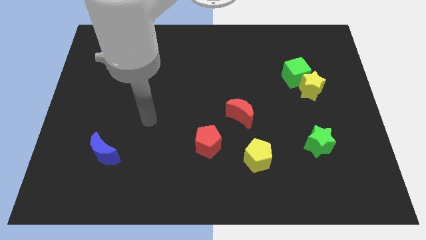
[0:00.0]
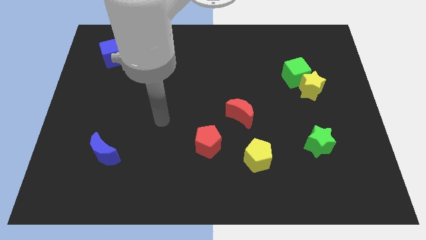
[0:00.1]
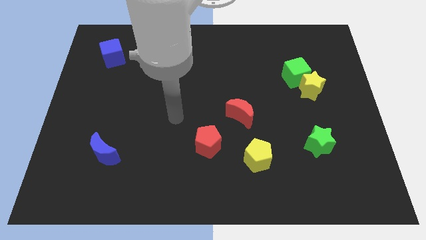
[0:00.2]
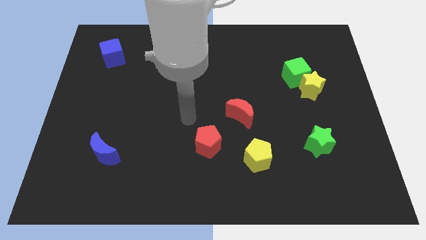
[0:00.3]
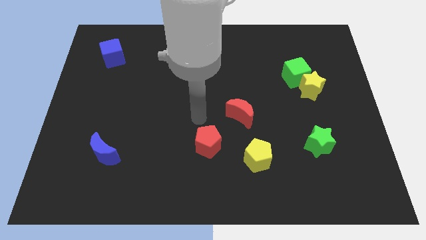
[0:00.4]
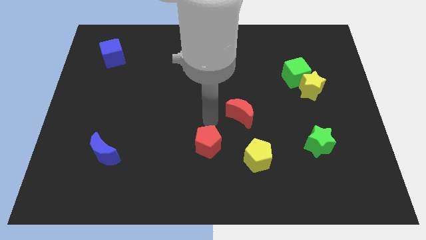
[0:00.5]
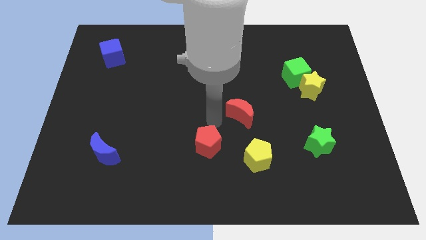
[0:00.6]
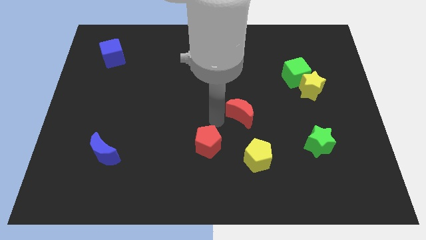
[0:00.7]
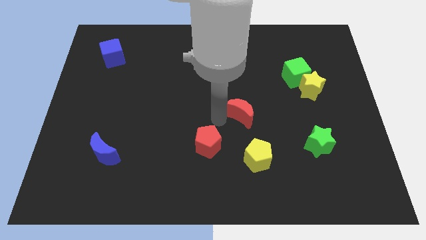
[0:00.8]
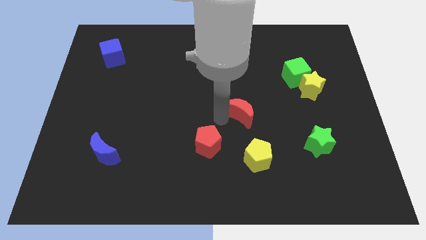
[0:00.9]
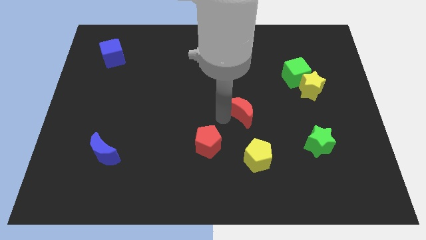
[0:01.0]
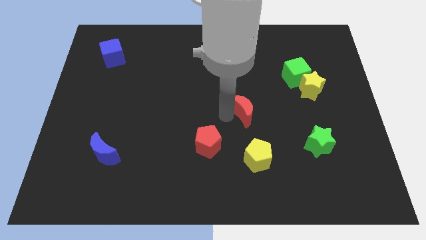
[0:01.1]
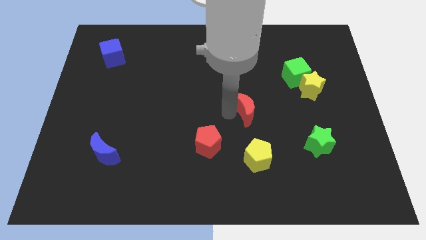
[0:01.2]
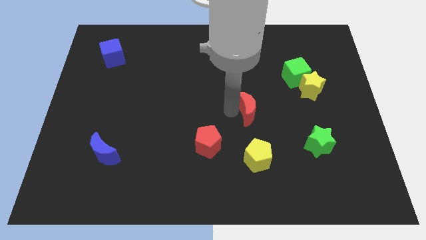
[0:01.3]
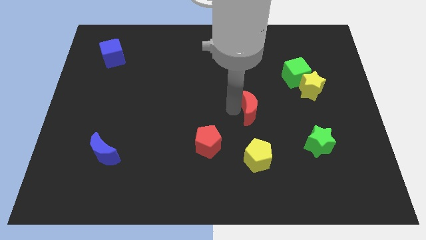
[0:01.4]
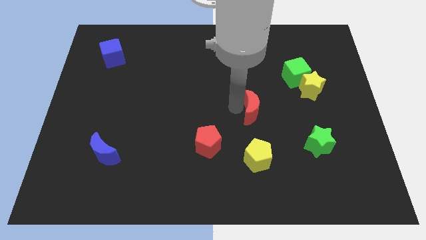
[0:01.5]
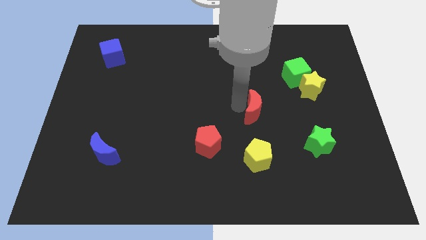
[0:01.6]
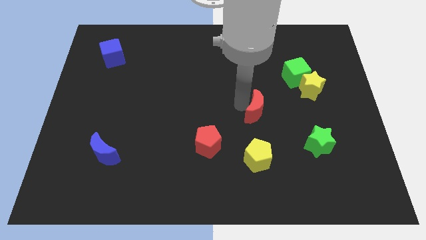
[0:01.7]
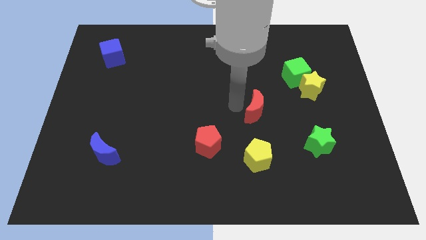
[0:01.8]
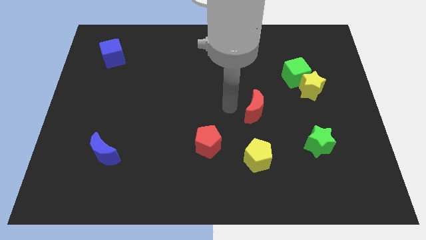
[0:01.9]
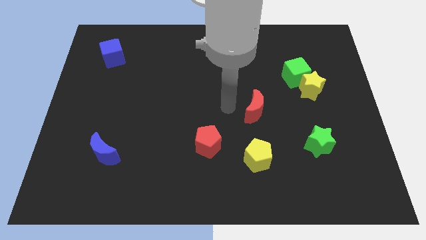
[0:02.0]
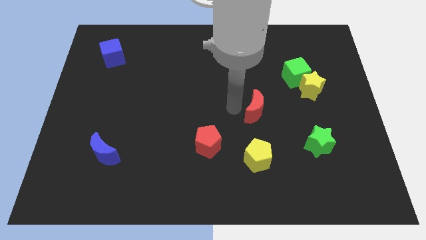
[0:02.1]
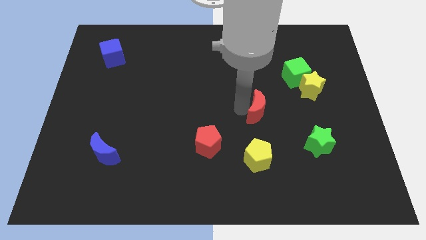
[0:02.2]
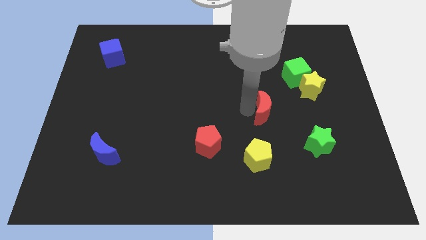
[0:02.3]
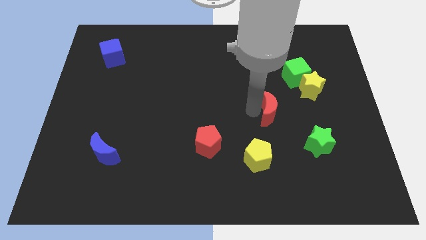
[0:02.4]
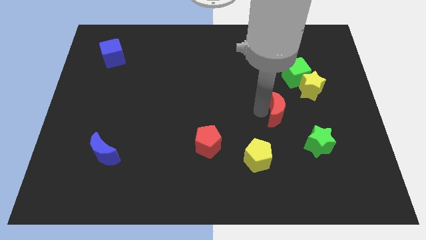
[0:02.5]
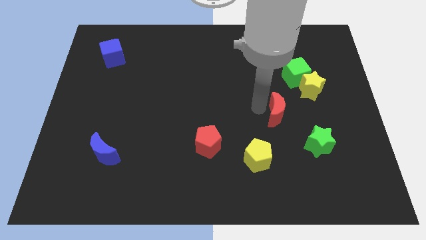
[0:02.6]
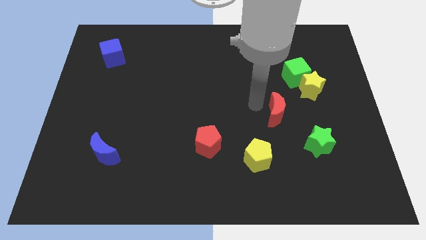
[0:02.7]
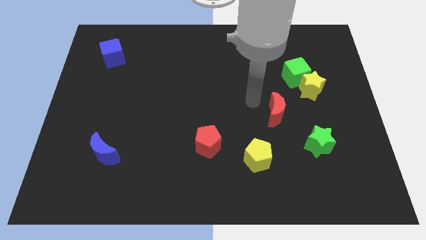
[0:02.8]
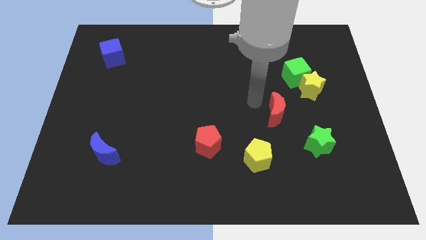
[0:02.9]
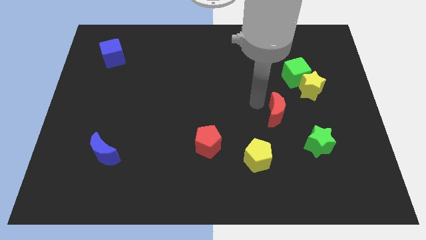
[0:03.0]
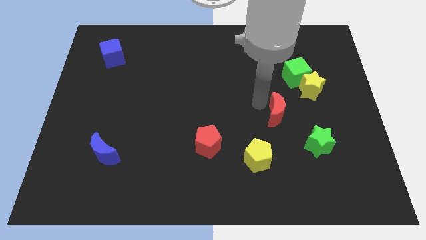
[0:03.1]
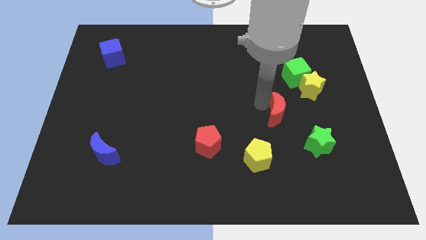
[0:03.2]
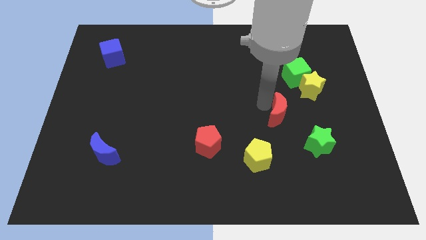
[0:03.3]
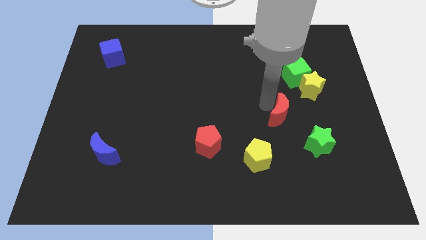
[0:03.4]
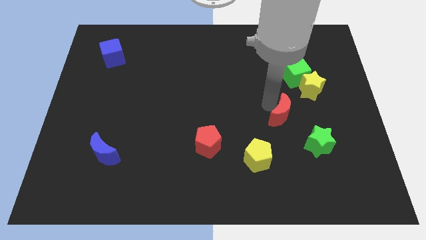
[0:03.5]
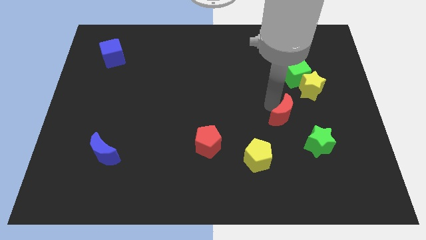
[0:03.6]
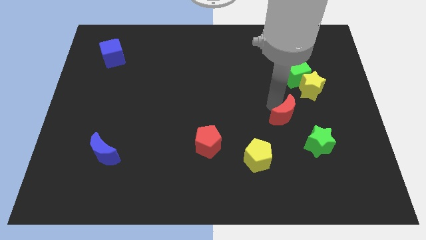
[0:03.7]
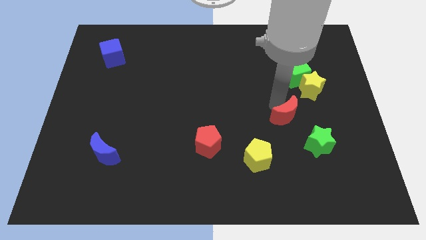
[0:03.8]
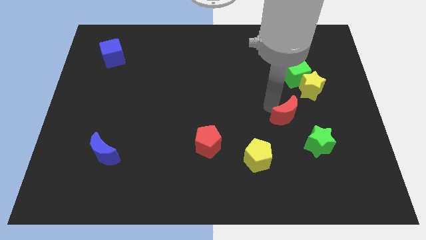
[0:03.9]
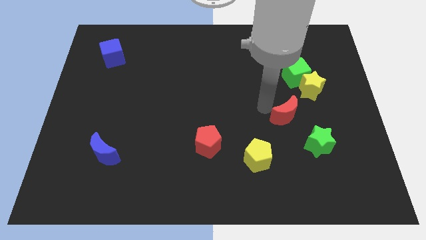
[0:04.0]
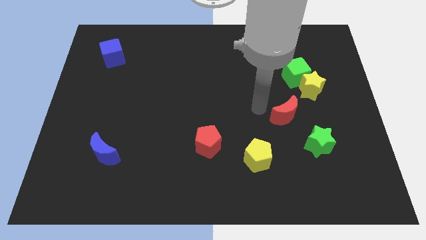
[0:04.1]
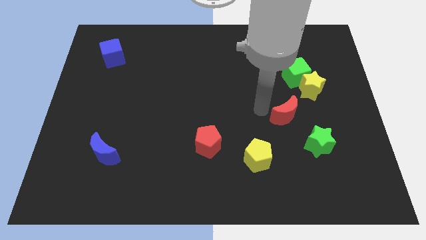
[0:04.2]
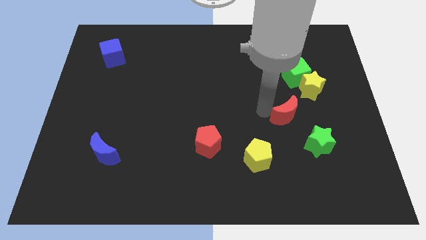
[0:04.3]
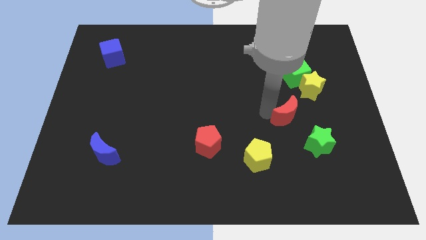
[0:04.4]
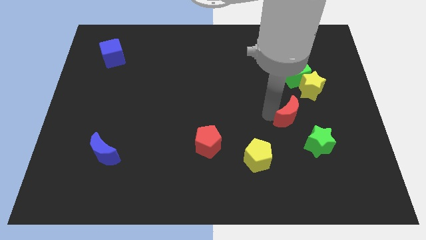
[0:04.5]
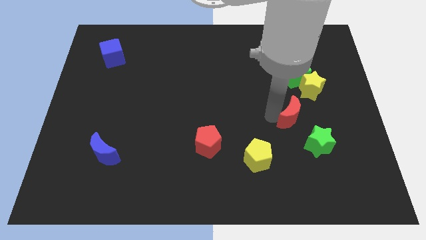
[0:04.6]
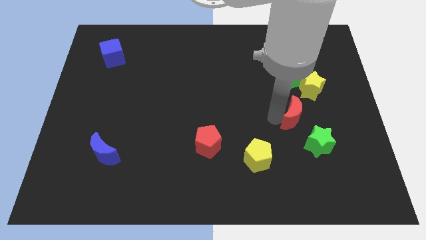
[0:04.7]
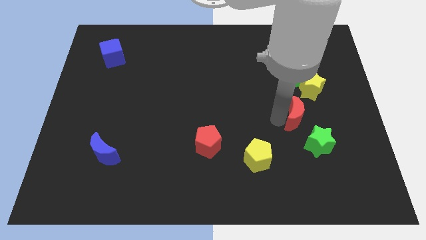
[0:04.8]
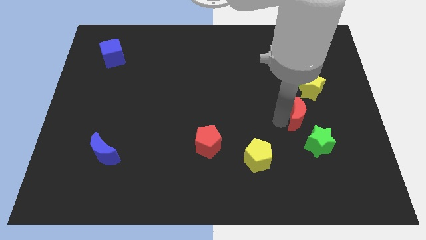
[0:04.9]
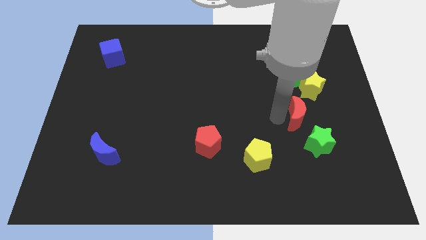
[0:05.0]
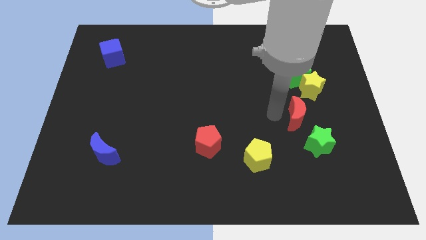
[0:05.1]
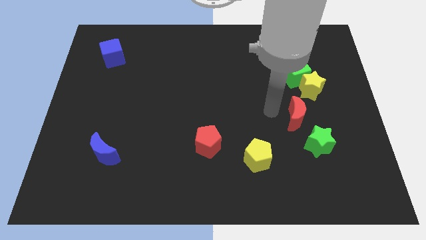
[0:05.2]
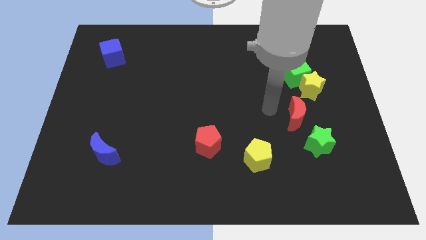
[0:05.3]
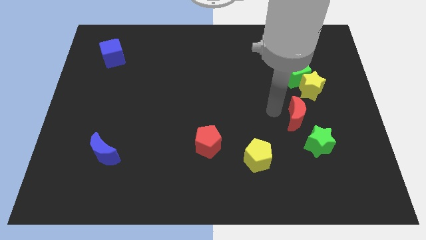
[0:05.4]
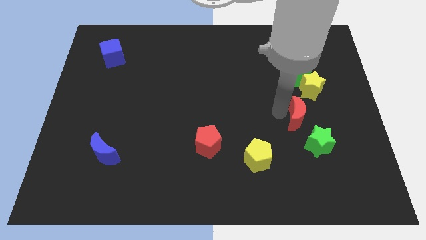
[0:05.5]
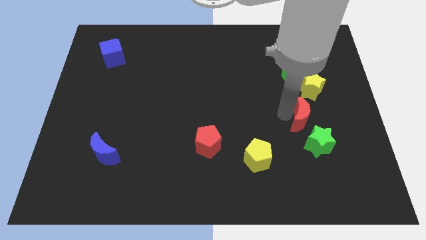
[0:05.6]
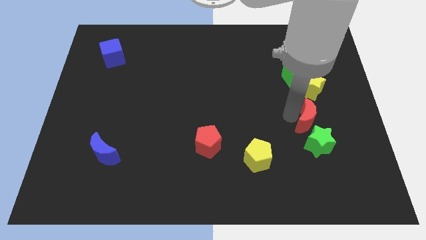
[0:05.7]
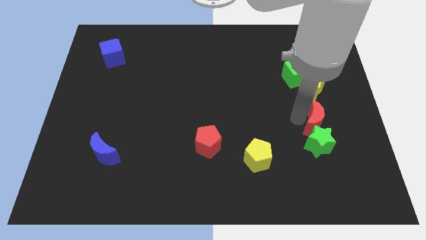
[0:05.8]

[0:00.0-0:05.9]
put the red moon to the top right side of the green star

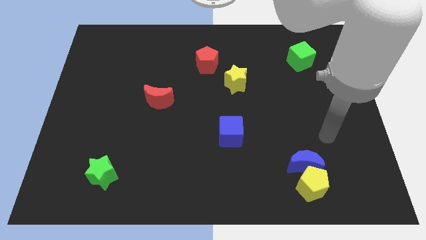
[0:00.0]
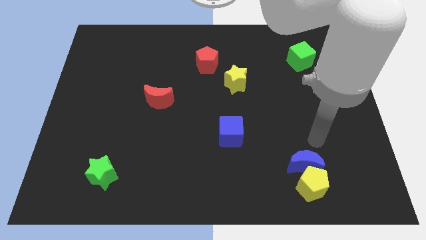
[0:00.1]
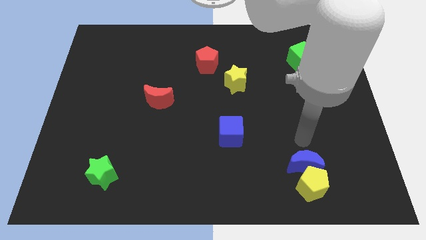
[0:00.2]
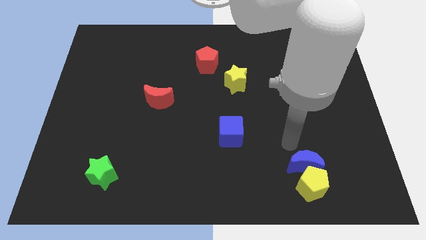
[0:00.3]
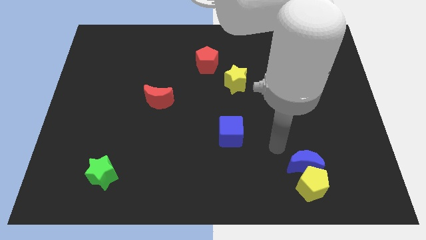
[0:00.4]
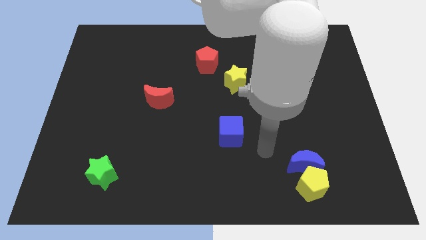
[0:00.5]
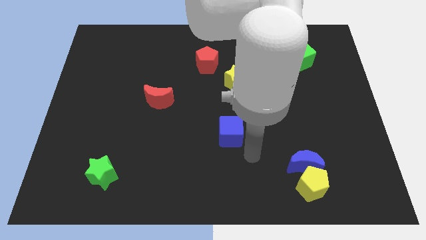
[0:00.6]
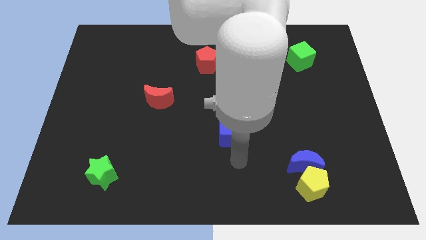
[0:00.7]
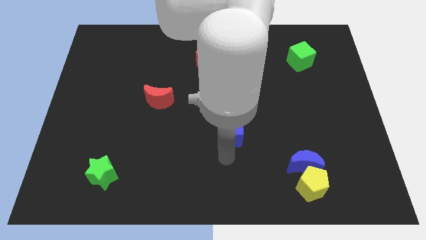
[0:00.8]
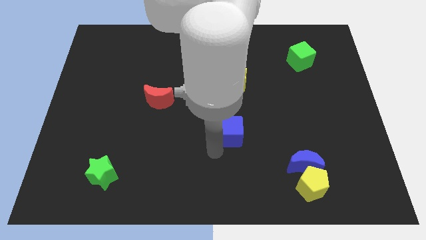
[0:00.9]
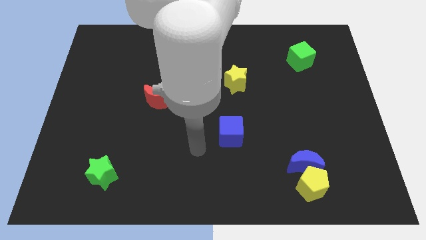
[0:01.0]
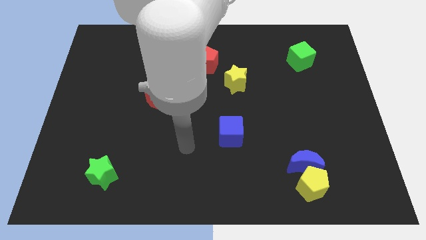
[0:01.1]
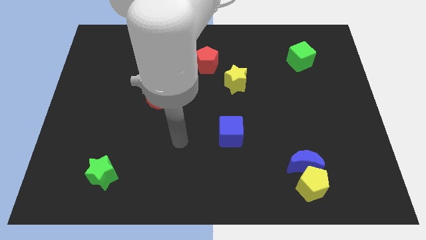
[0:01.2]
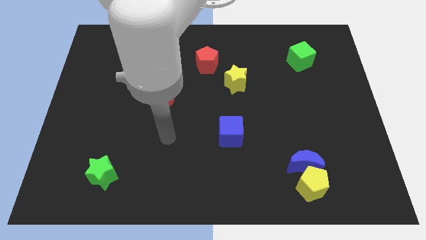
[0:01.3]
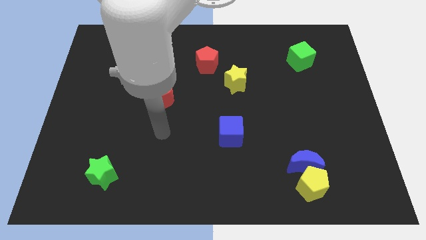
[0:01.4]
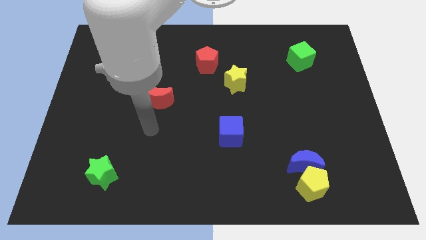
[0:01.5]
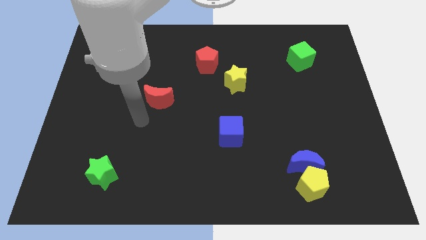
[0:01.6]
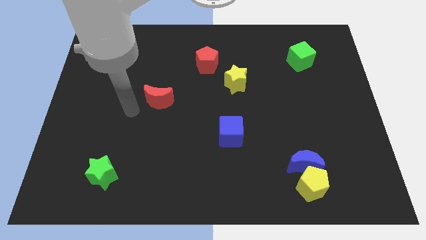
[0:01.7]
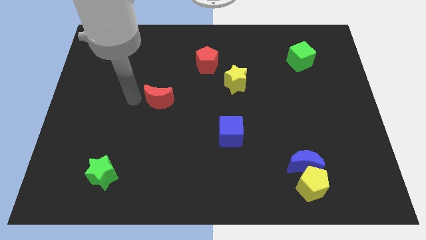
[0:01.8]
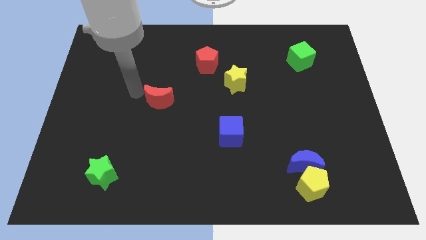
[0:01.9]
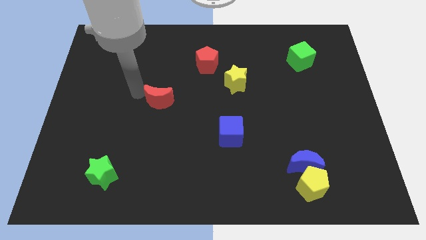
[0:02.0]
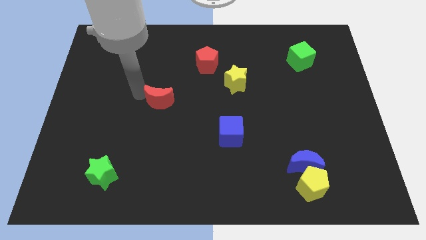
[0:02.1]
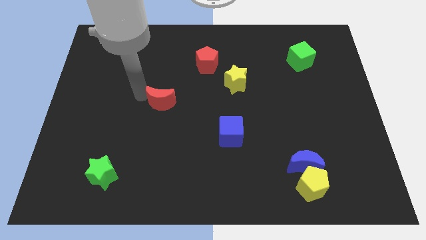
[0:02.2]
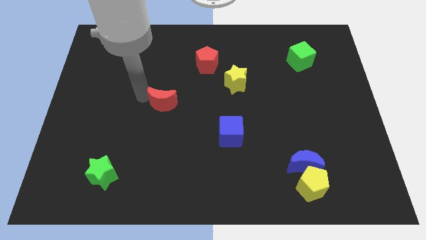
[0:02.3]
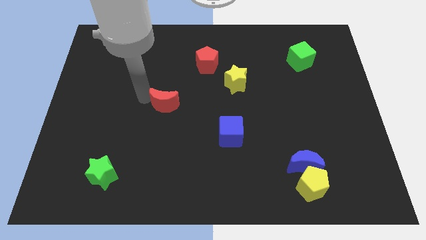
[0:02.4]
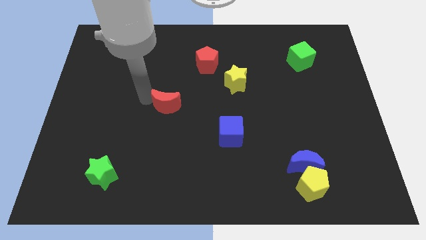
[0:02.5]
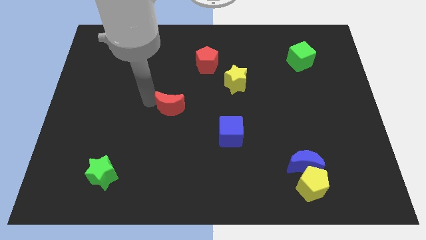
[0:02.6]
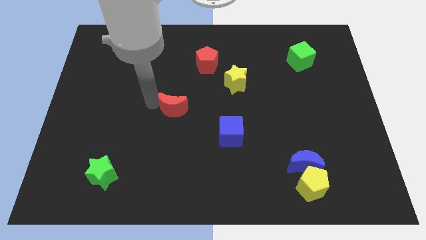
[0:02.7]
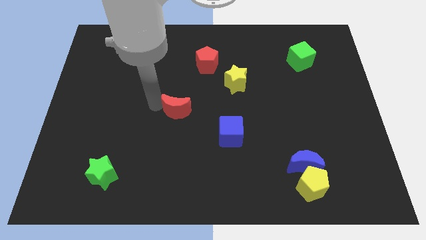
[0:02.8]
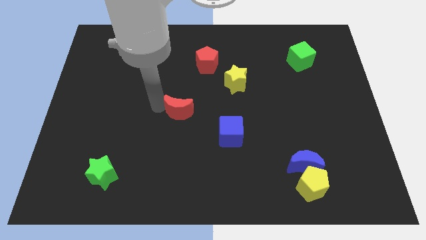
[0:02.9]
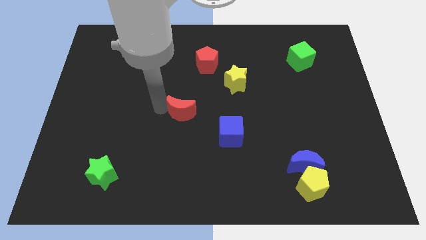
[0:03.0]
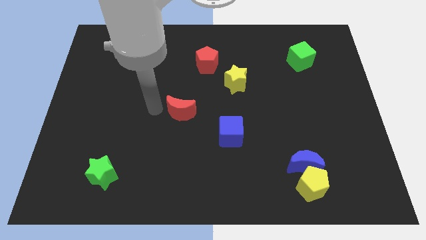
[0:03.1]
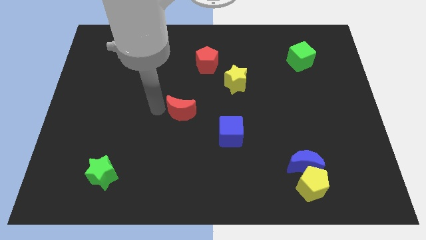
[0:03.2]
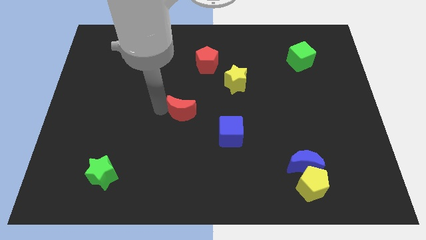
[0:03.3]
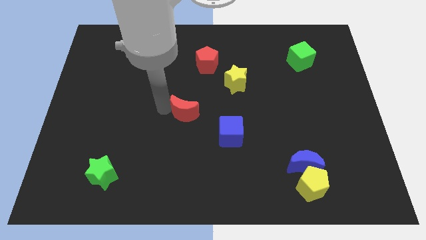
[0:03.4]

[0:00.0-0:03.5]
put the red moon to the top left side of the blue cube
